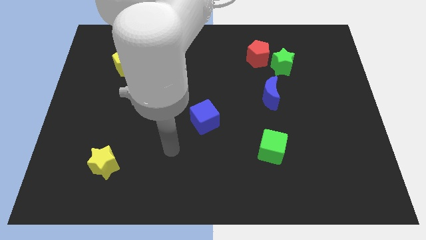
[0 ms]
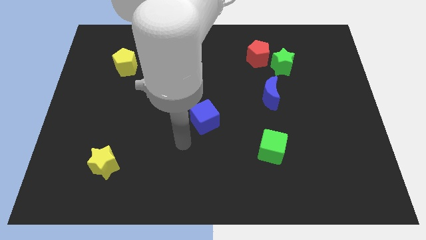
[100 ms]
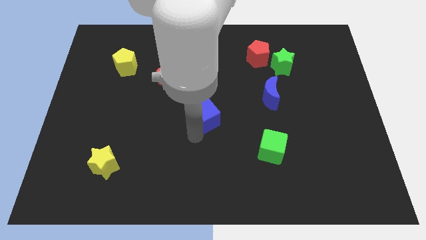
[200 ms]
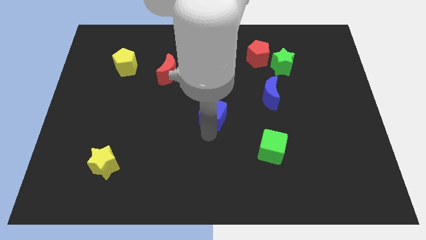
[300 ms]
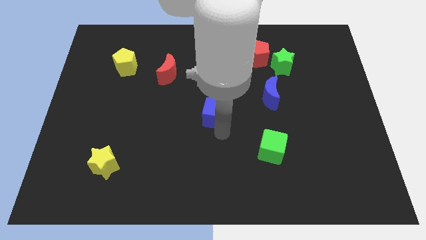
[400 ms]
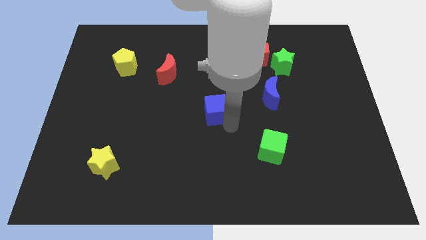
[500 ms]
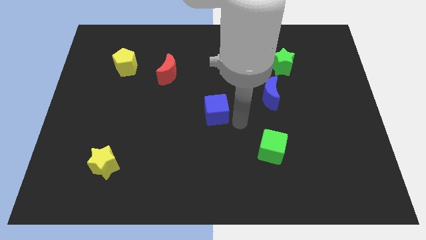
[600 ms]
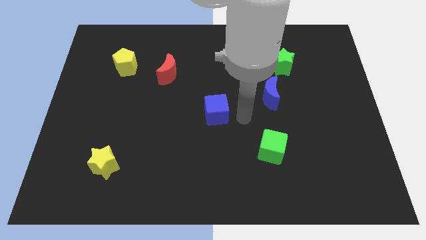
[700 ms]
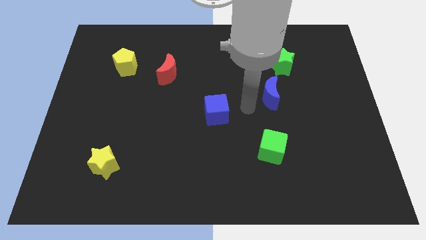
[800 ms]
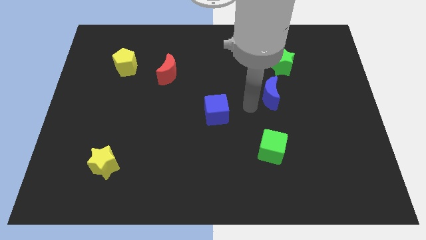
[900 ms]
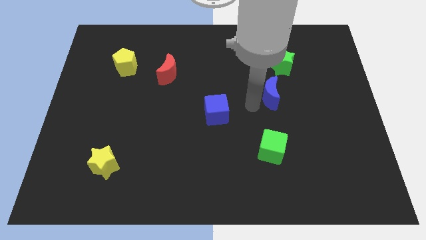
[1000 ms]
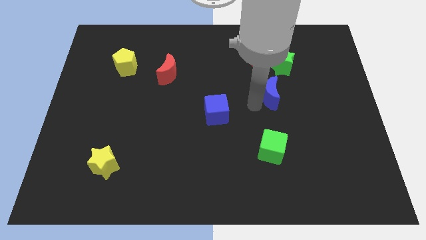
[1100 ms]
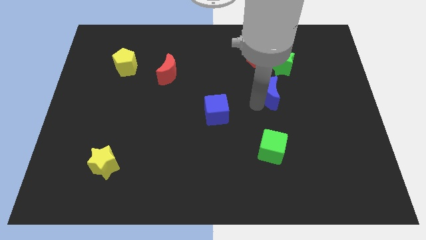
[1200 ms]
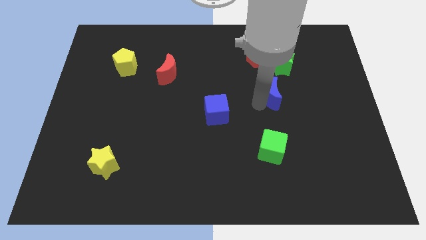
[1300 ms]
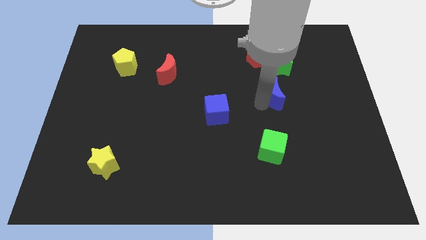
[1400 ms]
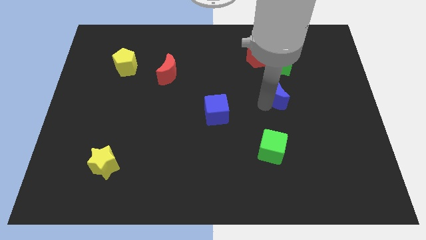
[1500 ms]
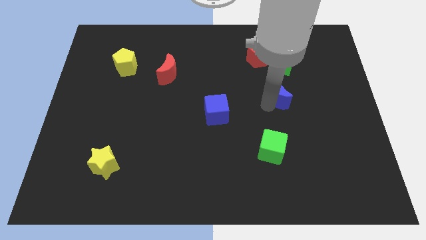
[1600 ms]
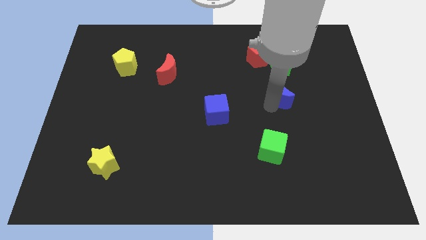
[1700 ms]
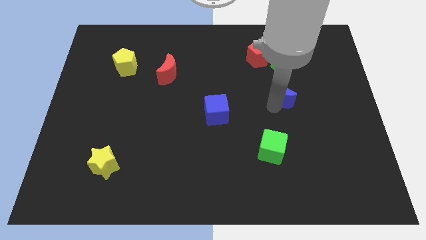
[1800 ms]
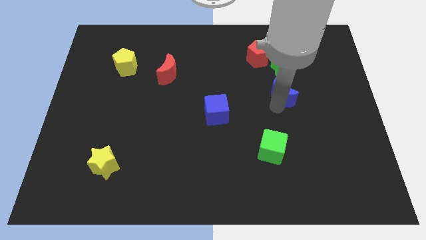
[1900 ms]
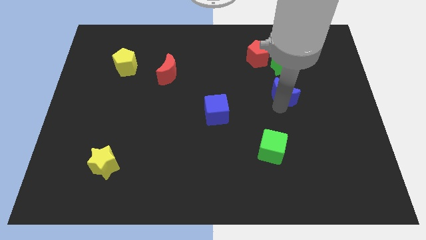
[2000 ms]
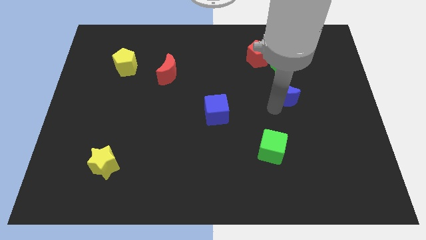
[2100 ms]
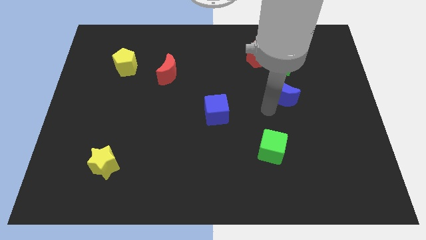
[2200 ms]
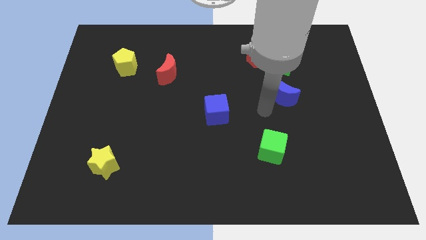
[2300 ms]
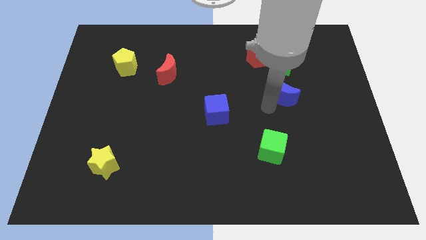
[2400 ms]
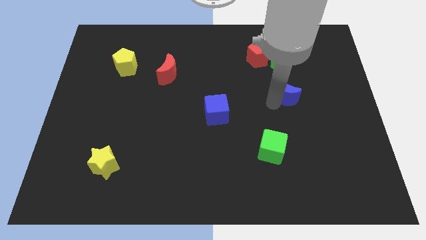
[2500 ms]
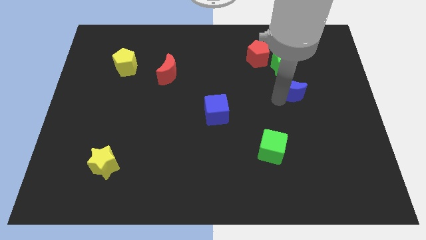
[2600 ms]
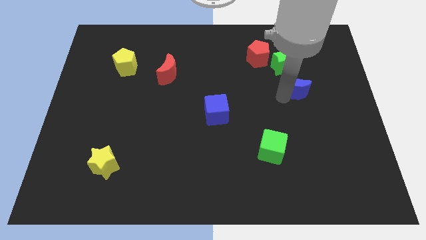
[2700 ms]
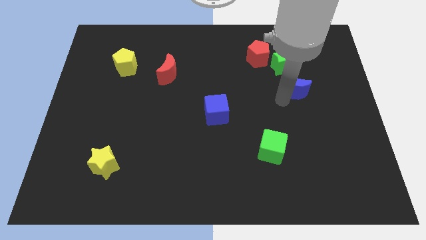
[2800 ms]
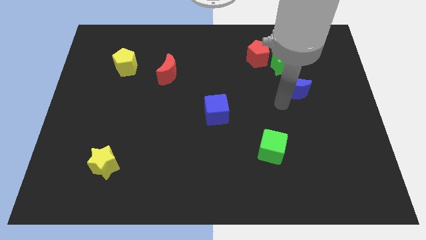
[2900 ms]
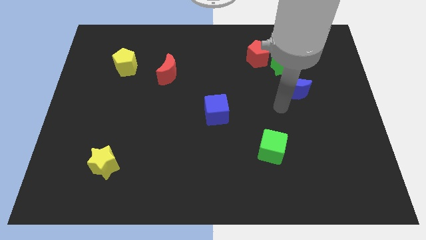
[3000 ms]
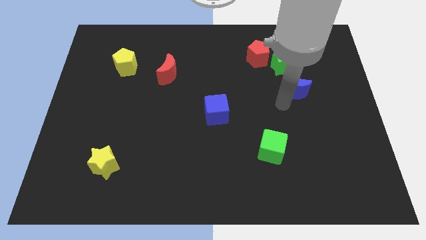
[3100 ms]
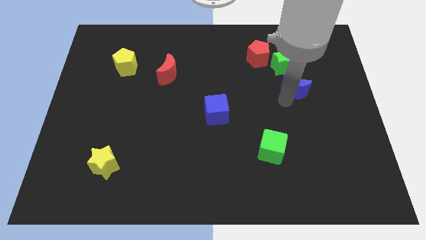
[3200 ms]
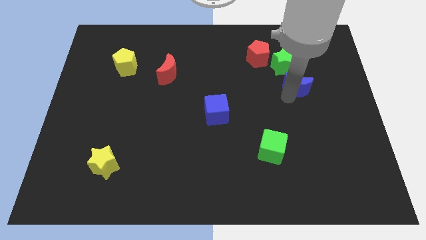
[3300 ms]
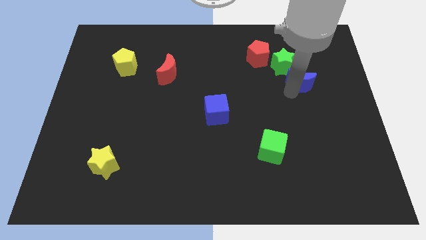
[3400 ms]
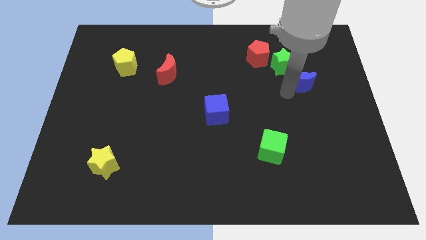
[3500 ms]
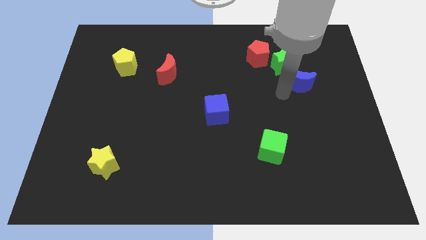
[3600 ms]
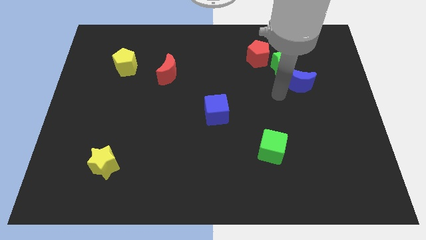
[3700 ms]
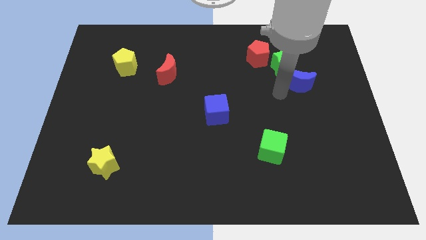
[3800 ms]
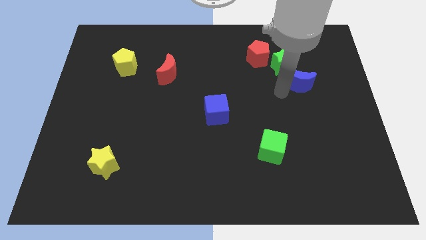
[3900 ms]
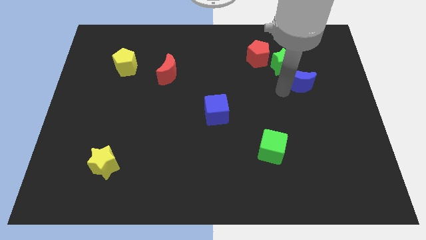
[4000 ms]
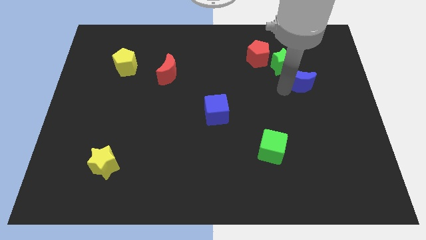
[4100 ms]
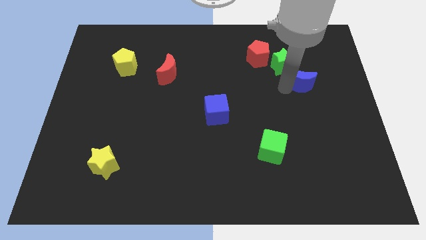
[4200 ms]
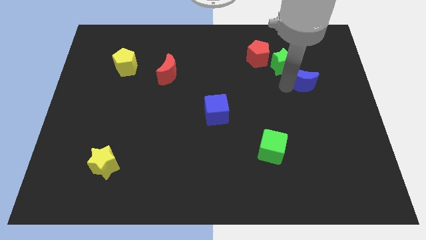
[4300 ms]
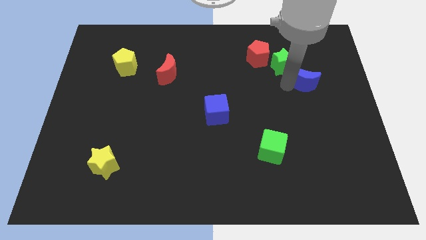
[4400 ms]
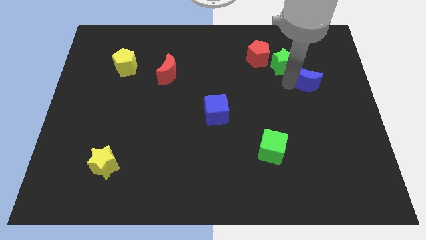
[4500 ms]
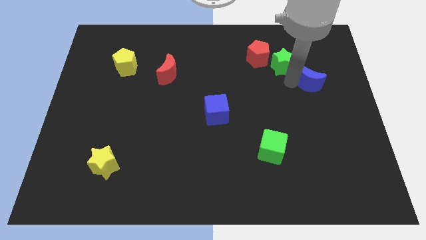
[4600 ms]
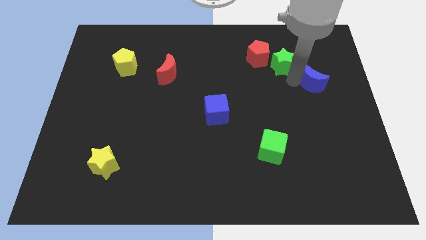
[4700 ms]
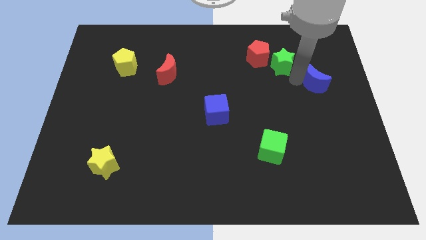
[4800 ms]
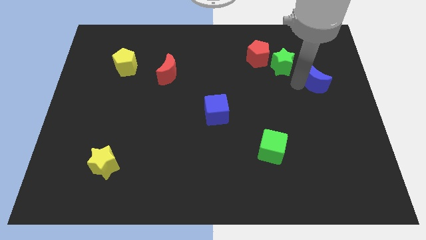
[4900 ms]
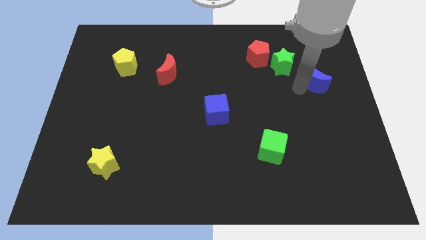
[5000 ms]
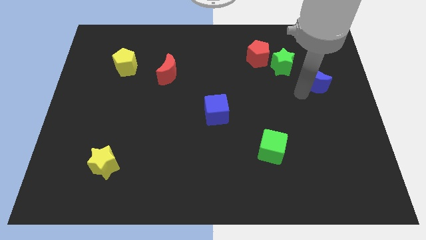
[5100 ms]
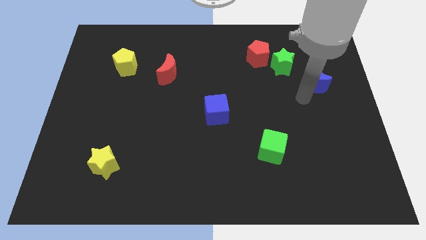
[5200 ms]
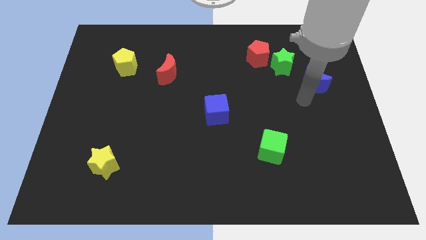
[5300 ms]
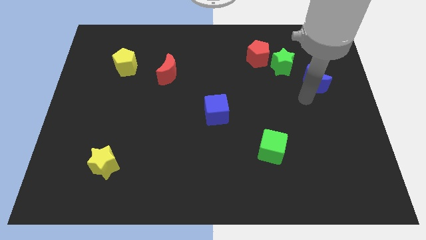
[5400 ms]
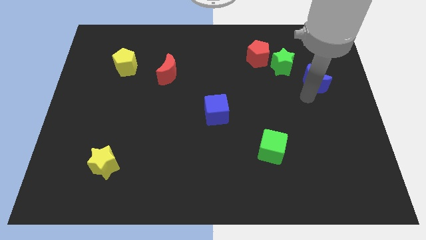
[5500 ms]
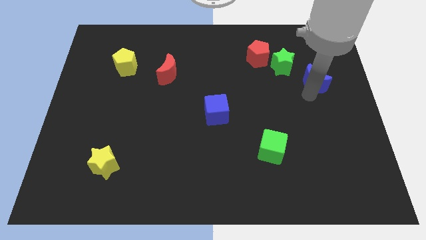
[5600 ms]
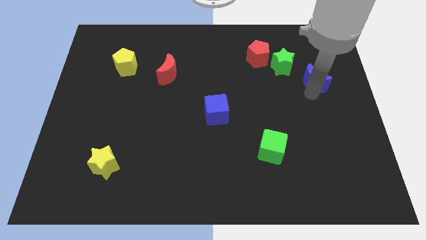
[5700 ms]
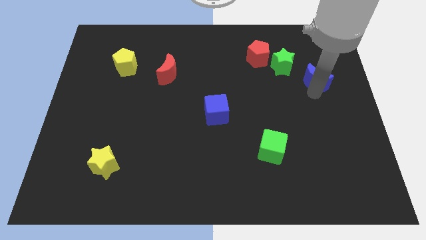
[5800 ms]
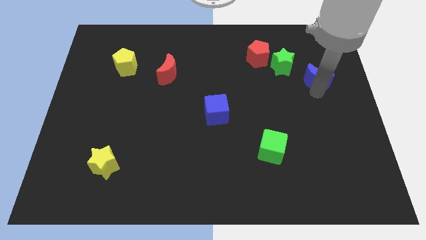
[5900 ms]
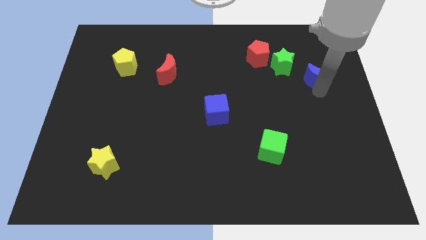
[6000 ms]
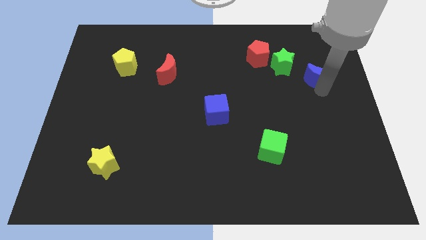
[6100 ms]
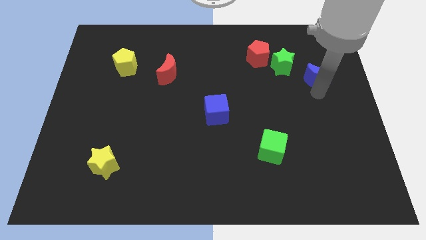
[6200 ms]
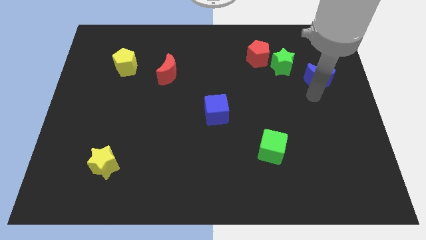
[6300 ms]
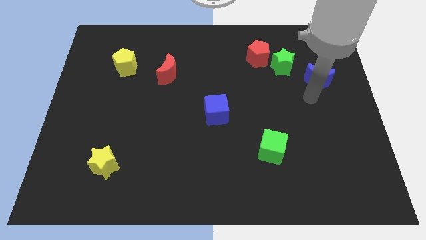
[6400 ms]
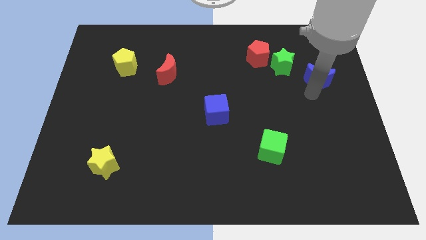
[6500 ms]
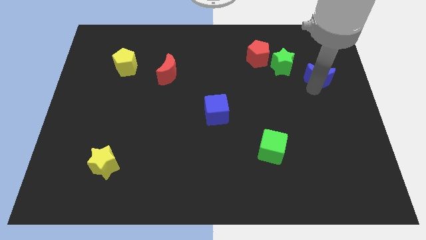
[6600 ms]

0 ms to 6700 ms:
move the blue moon right of the green star
